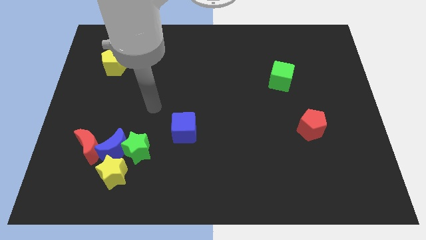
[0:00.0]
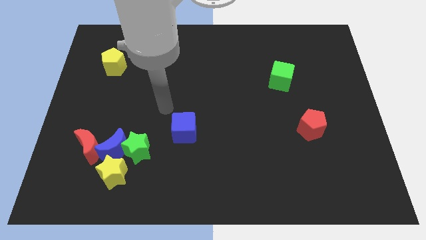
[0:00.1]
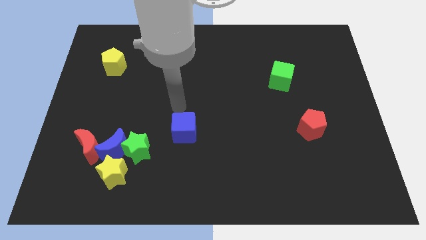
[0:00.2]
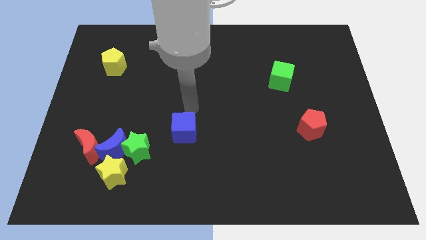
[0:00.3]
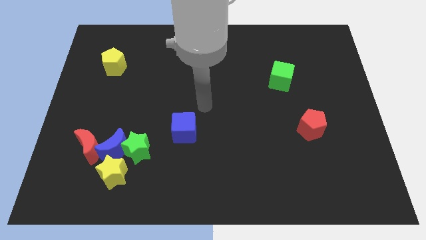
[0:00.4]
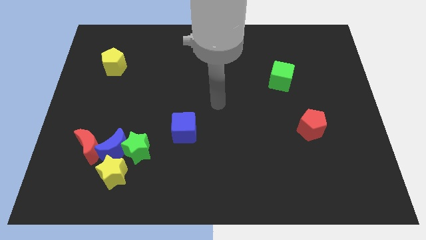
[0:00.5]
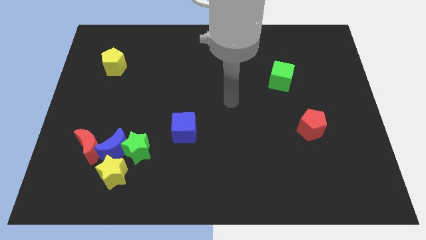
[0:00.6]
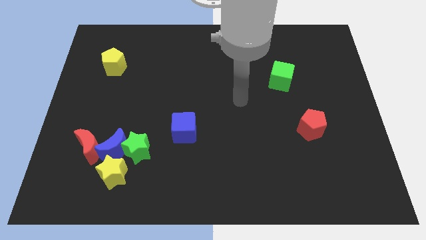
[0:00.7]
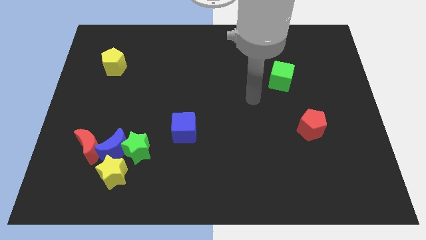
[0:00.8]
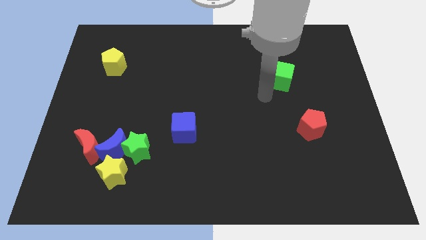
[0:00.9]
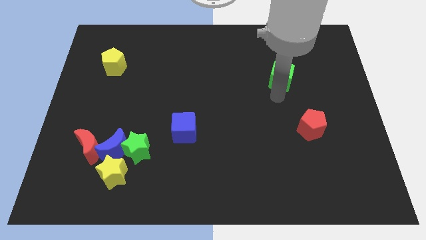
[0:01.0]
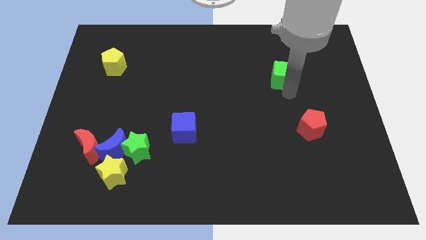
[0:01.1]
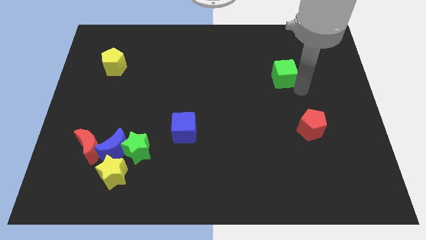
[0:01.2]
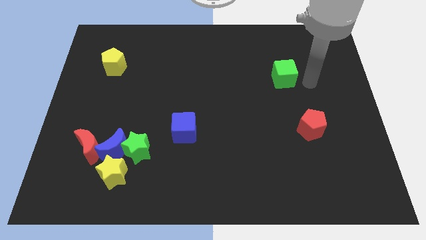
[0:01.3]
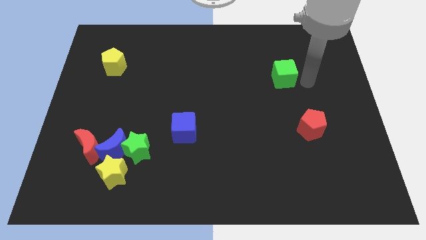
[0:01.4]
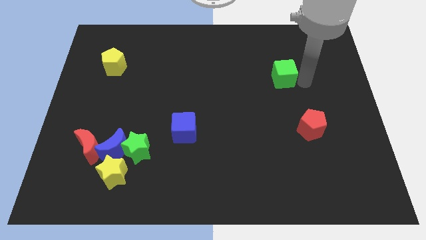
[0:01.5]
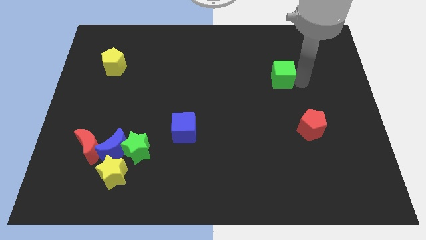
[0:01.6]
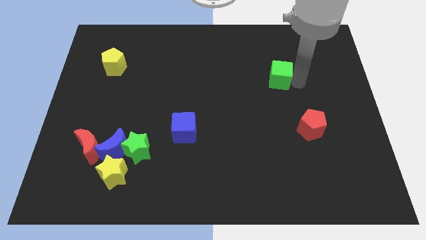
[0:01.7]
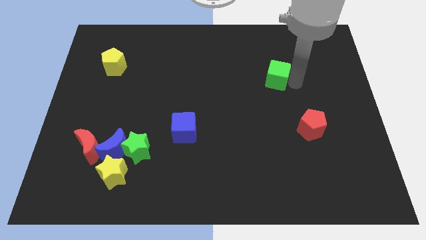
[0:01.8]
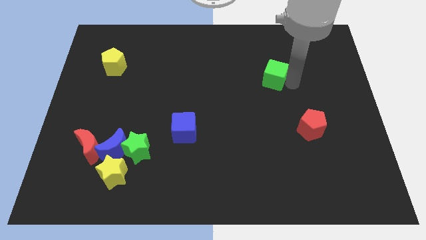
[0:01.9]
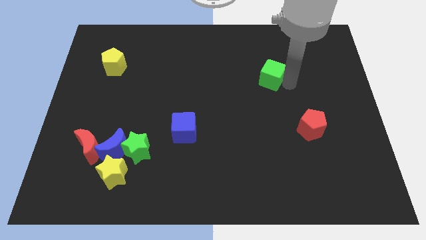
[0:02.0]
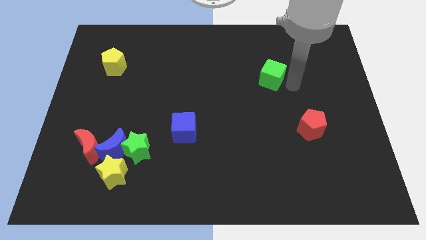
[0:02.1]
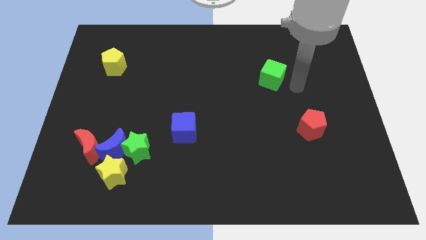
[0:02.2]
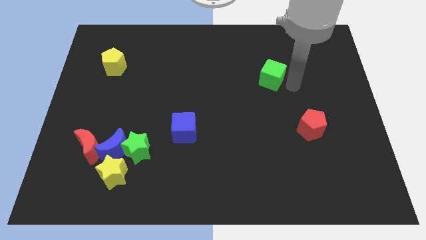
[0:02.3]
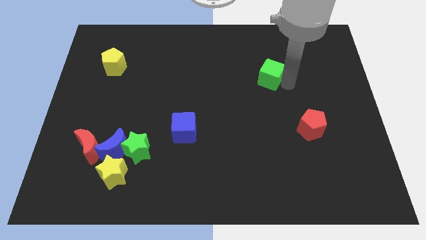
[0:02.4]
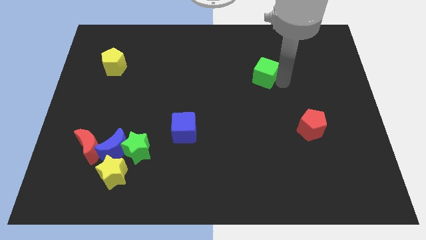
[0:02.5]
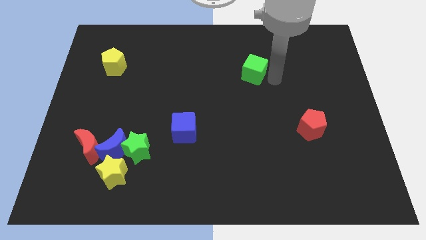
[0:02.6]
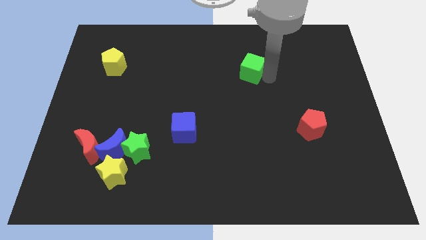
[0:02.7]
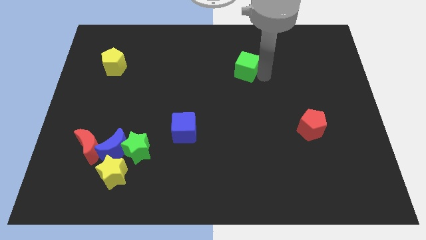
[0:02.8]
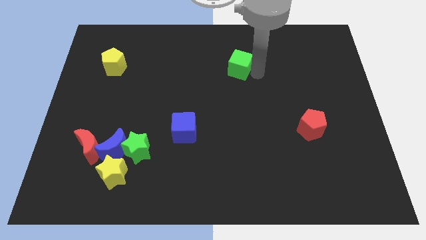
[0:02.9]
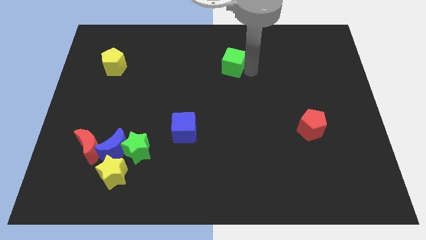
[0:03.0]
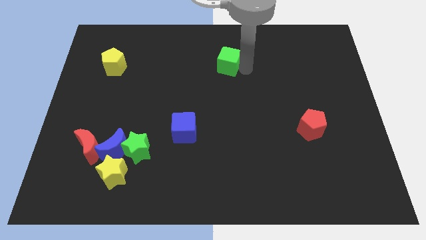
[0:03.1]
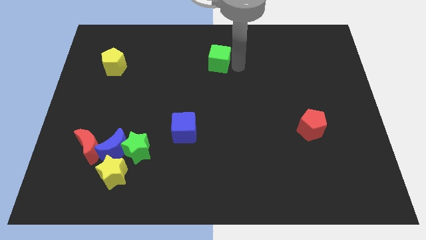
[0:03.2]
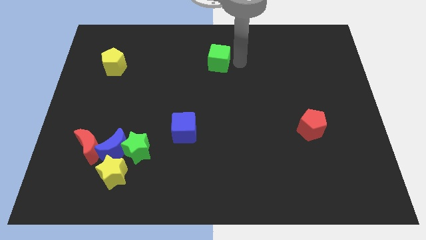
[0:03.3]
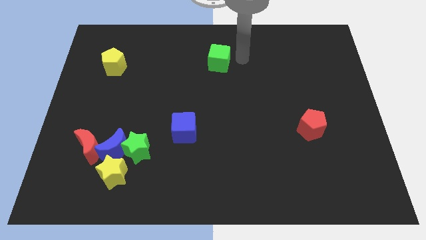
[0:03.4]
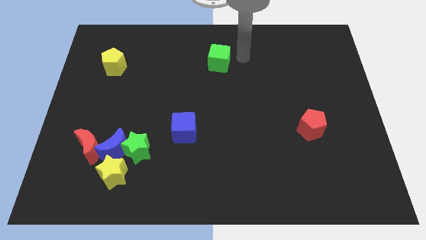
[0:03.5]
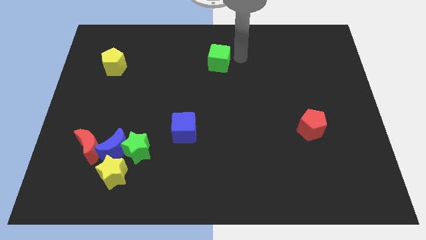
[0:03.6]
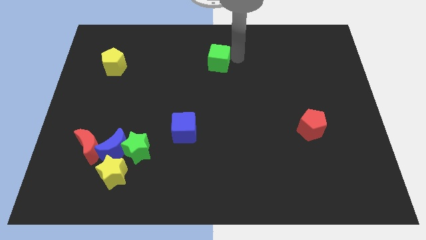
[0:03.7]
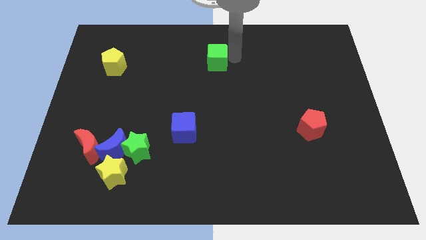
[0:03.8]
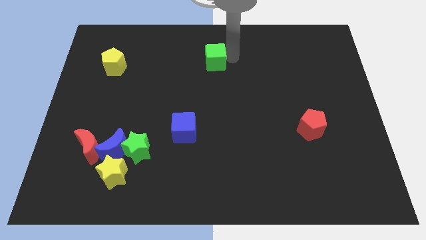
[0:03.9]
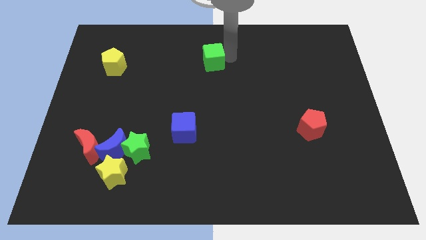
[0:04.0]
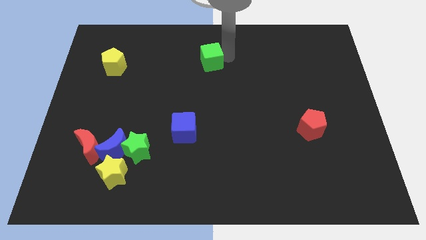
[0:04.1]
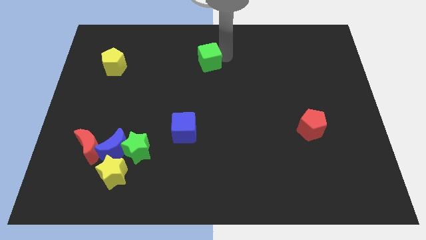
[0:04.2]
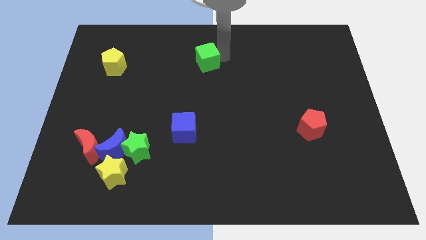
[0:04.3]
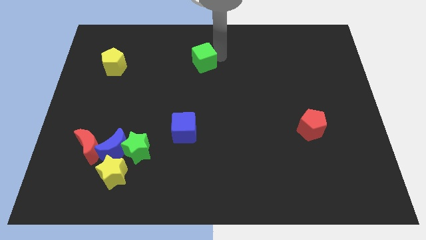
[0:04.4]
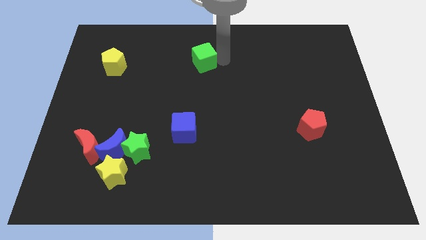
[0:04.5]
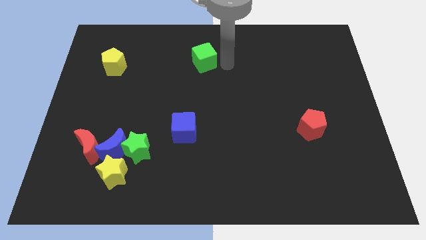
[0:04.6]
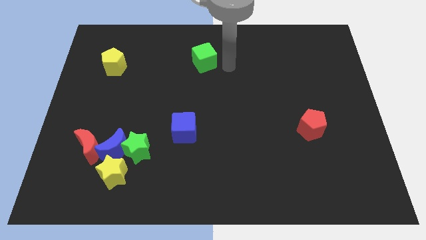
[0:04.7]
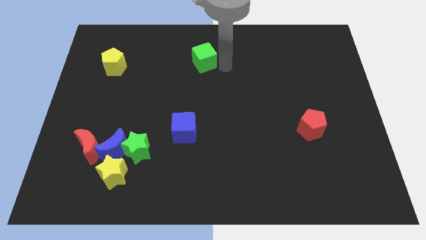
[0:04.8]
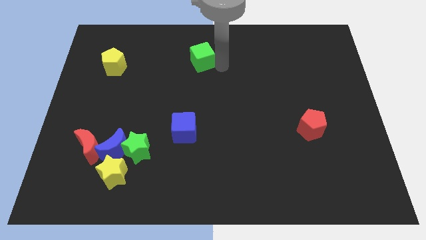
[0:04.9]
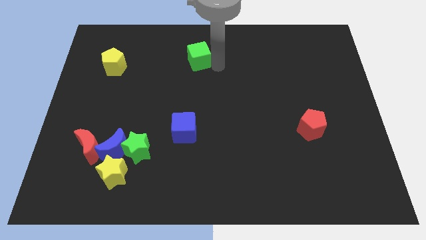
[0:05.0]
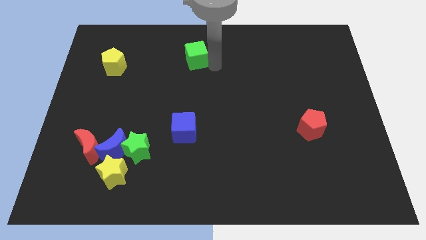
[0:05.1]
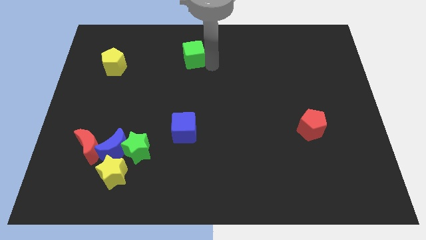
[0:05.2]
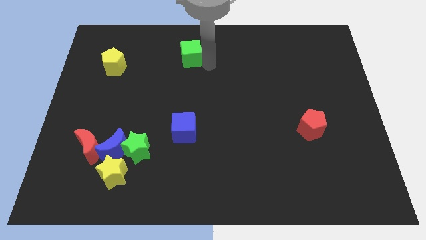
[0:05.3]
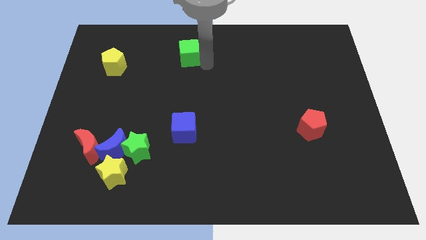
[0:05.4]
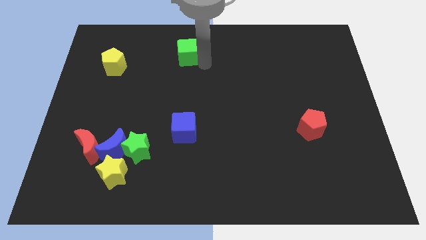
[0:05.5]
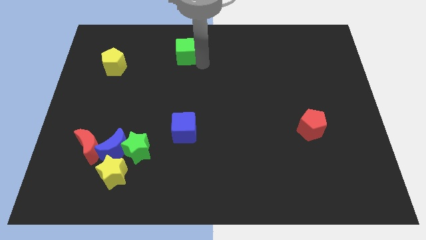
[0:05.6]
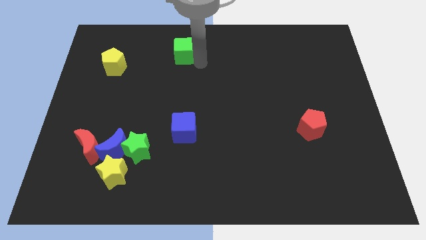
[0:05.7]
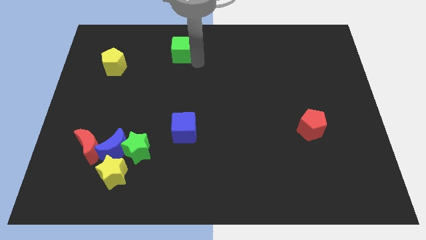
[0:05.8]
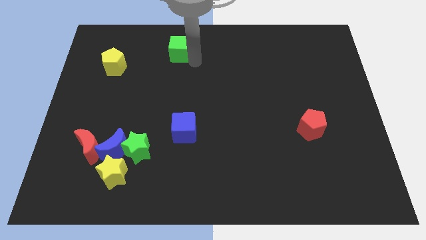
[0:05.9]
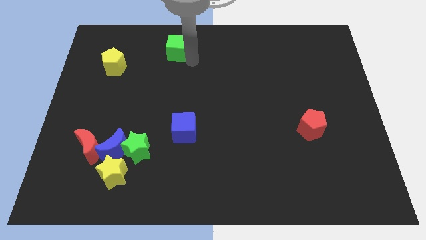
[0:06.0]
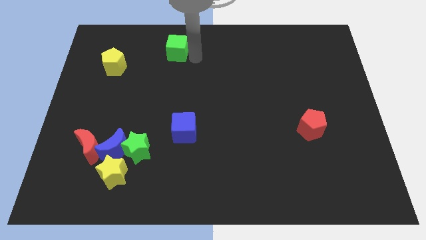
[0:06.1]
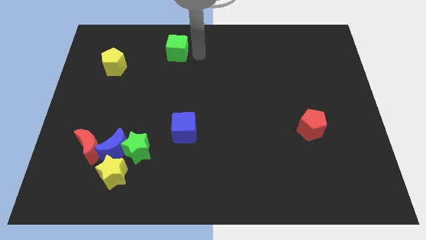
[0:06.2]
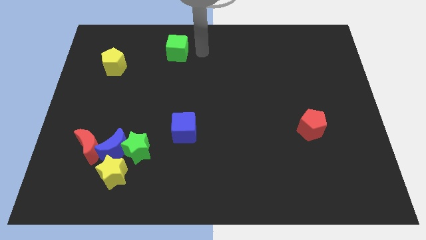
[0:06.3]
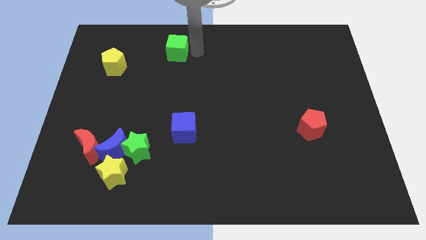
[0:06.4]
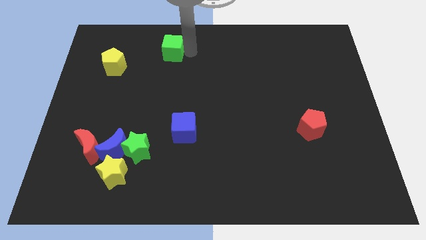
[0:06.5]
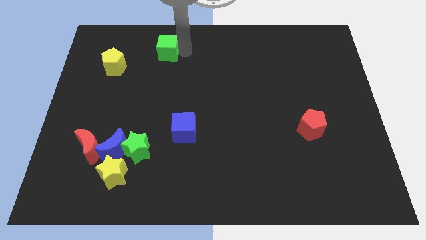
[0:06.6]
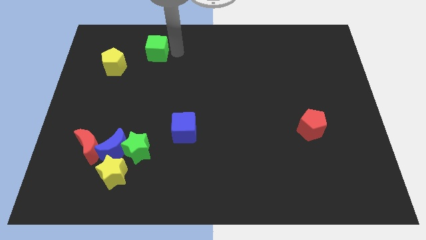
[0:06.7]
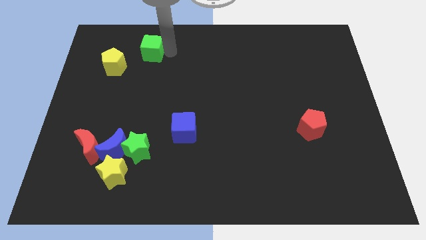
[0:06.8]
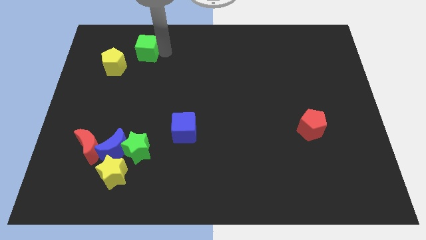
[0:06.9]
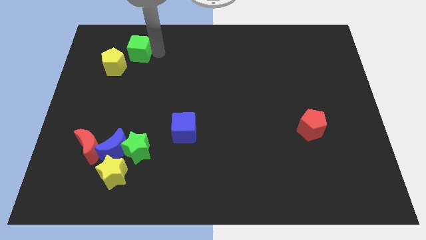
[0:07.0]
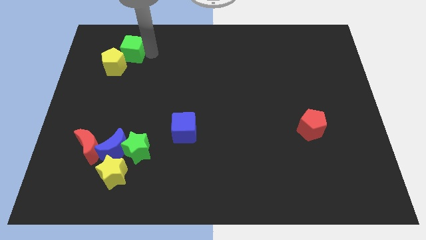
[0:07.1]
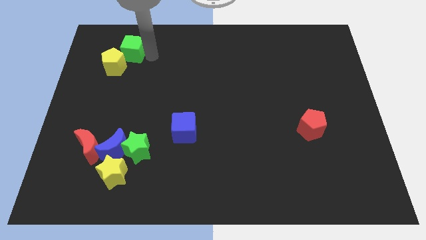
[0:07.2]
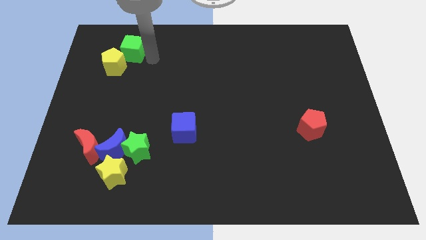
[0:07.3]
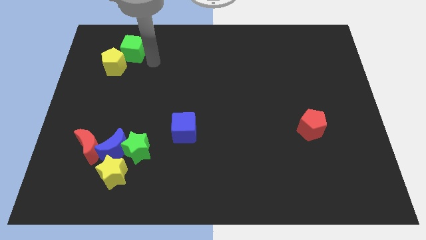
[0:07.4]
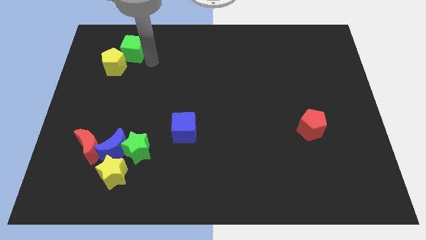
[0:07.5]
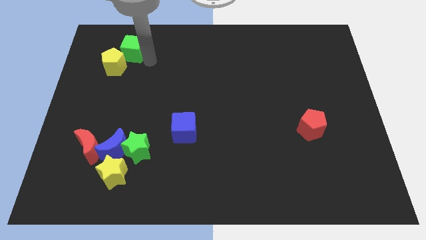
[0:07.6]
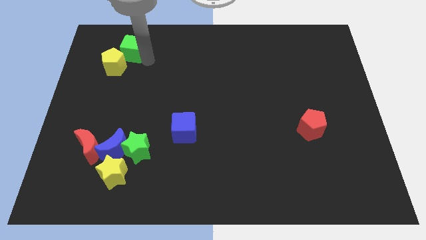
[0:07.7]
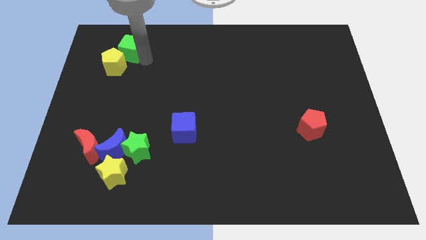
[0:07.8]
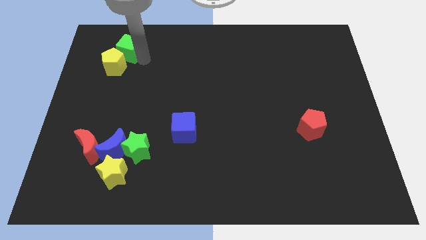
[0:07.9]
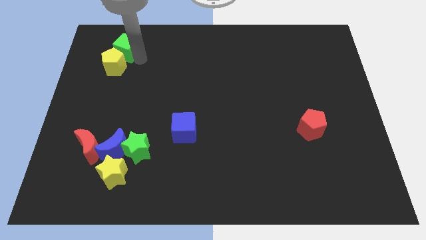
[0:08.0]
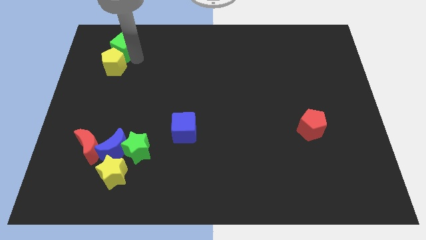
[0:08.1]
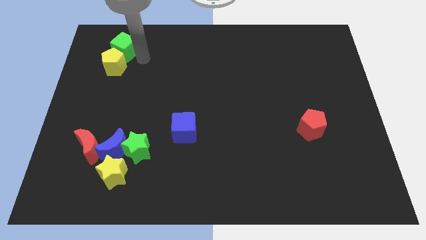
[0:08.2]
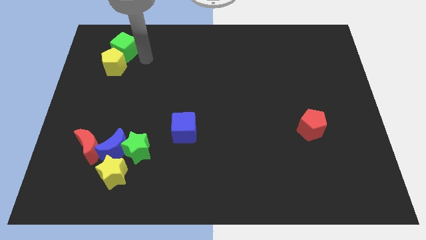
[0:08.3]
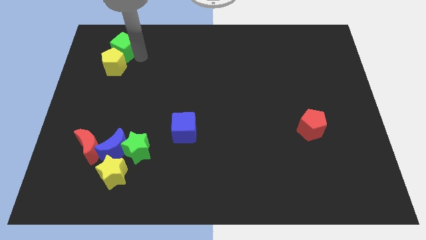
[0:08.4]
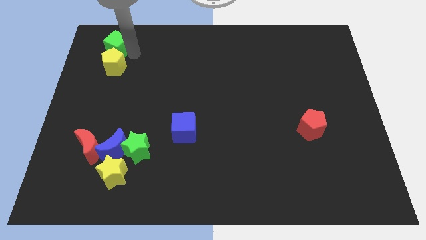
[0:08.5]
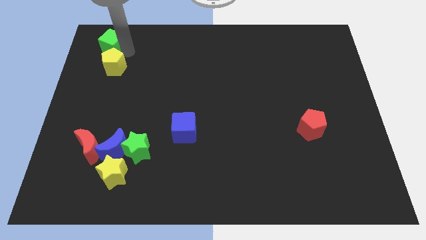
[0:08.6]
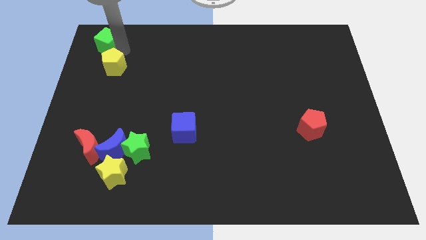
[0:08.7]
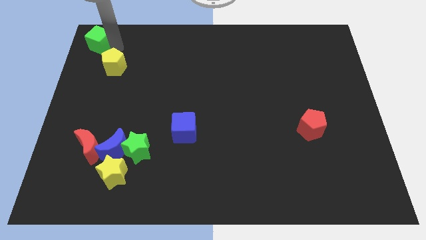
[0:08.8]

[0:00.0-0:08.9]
push the green cube to the top left corner
